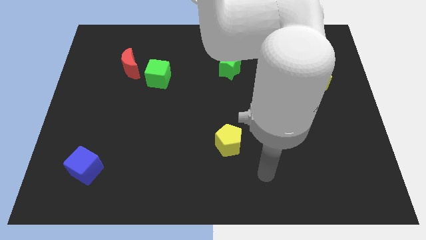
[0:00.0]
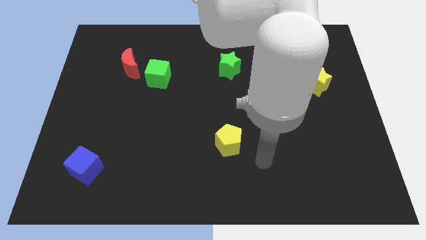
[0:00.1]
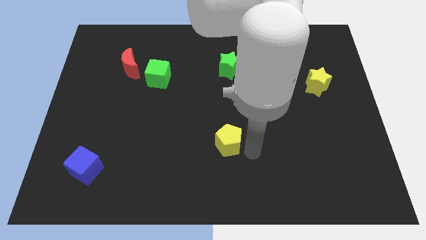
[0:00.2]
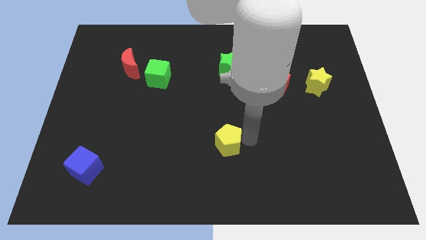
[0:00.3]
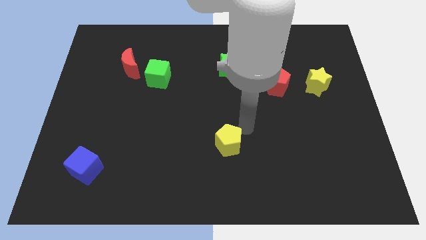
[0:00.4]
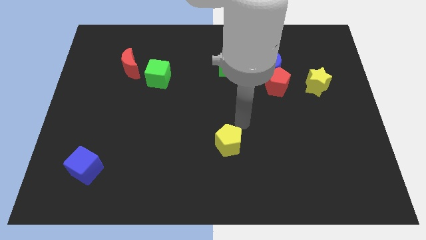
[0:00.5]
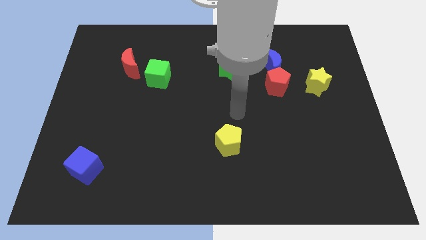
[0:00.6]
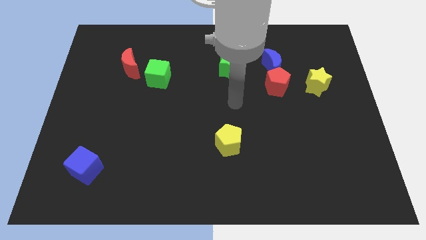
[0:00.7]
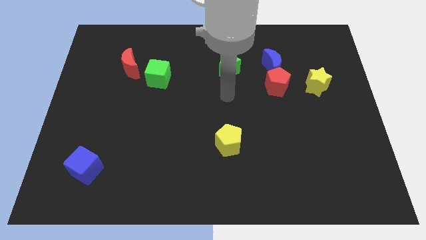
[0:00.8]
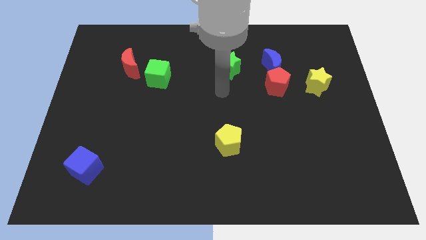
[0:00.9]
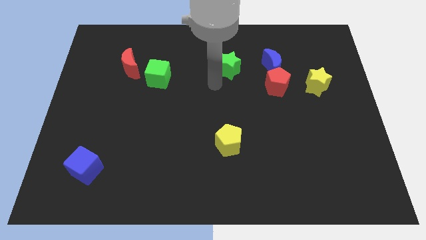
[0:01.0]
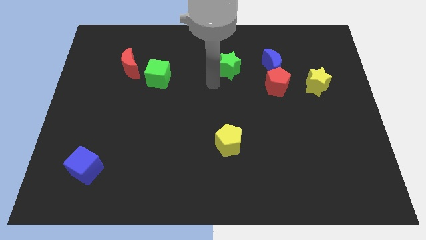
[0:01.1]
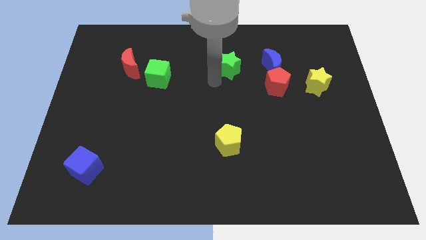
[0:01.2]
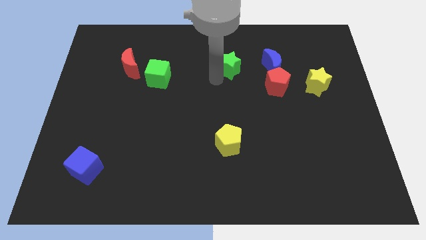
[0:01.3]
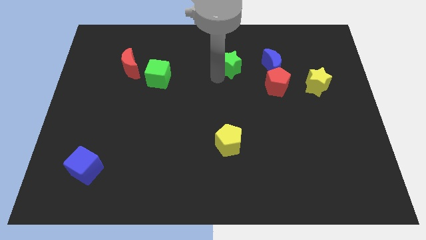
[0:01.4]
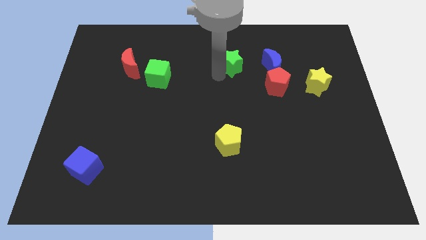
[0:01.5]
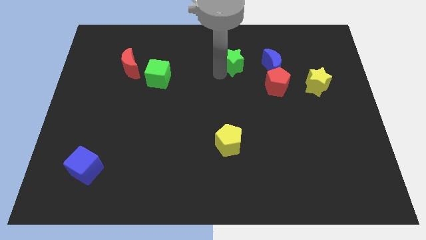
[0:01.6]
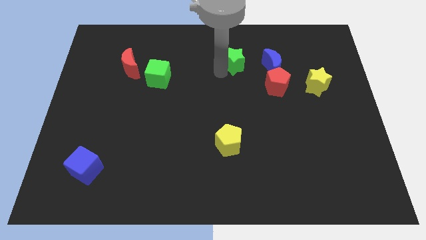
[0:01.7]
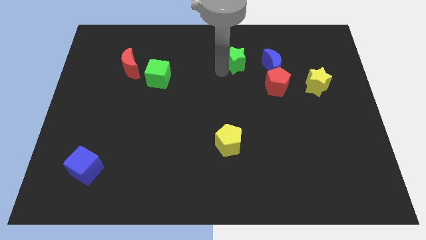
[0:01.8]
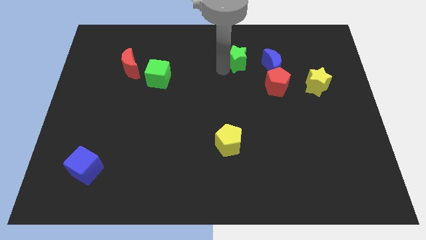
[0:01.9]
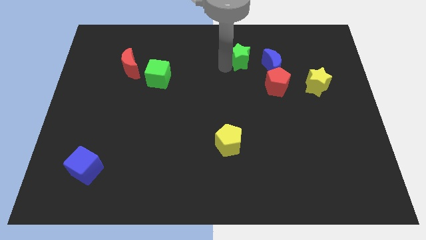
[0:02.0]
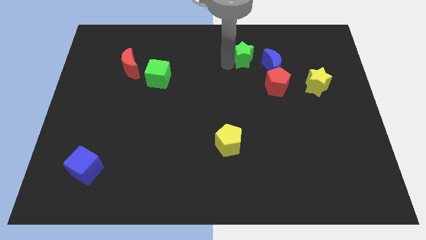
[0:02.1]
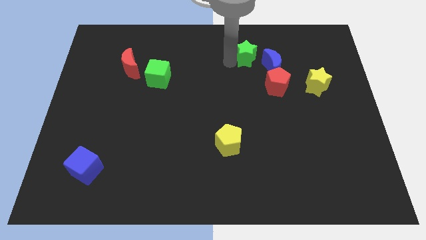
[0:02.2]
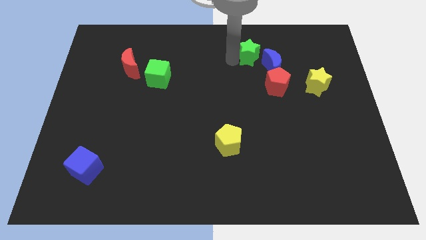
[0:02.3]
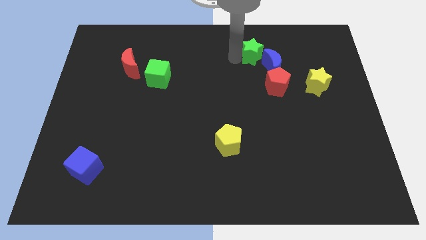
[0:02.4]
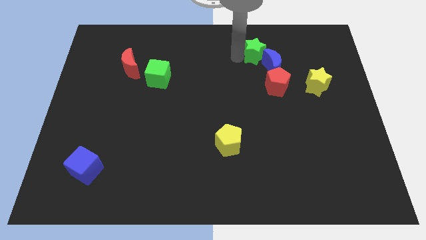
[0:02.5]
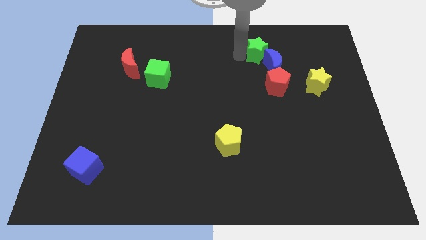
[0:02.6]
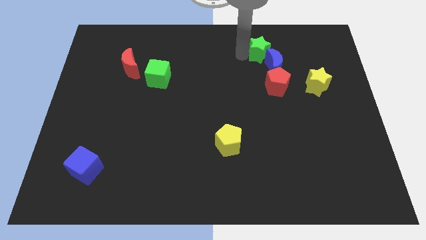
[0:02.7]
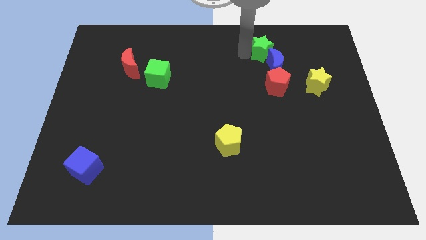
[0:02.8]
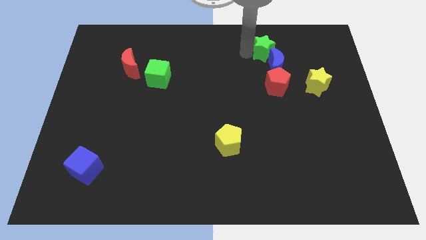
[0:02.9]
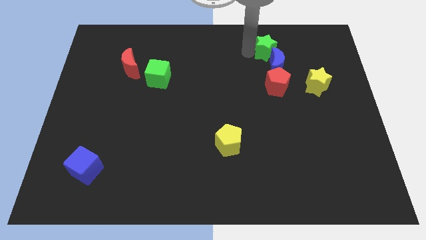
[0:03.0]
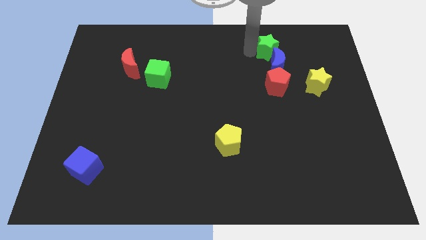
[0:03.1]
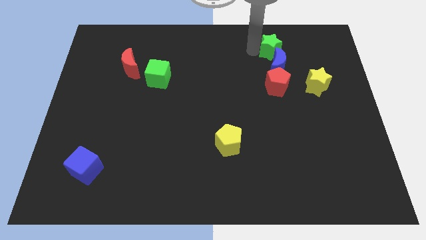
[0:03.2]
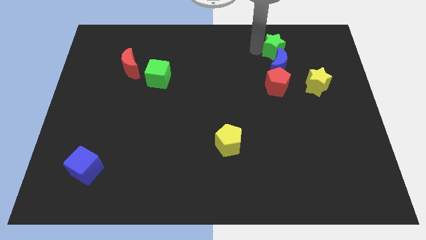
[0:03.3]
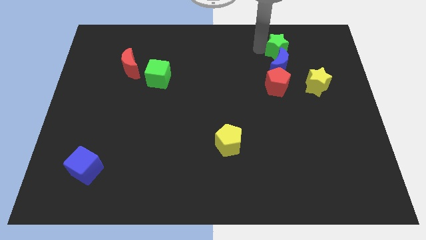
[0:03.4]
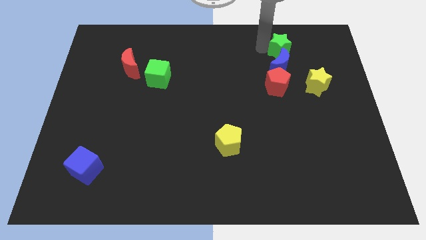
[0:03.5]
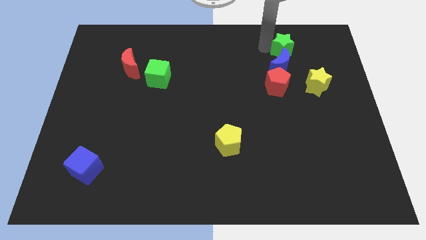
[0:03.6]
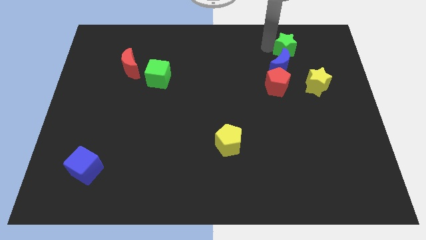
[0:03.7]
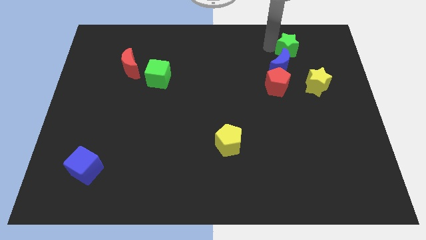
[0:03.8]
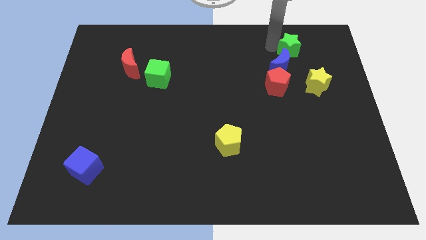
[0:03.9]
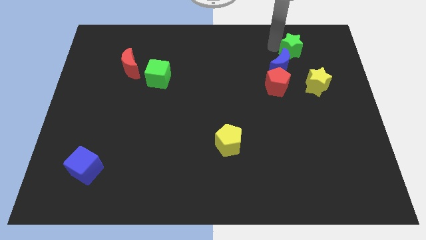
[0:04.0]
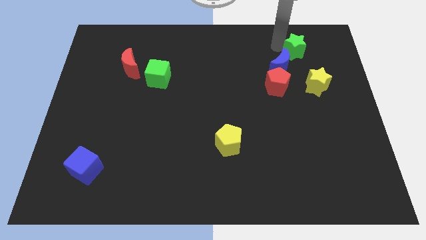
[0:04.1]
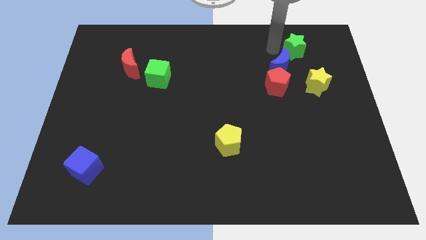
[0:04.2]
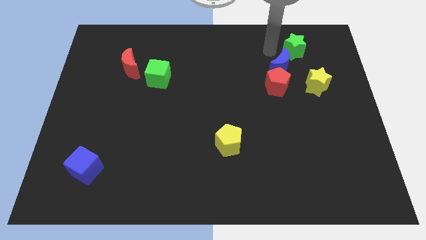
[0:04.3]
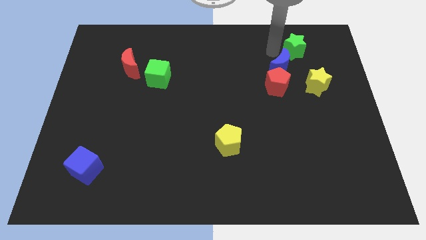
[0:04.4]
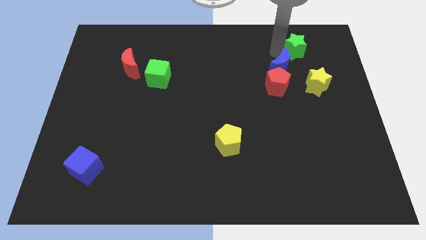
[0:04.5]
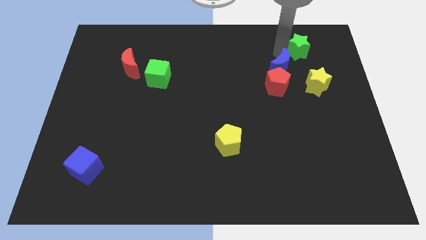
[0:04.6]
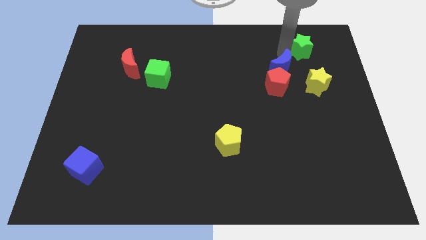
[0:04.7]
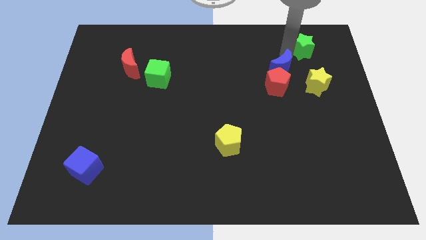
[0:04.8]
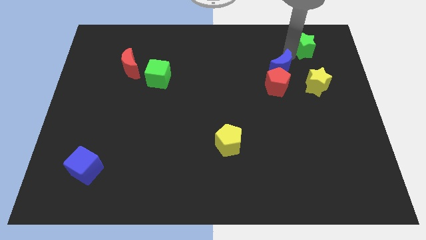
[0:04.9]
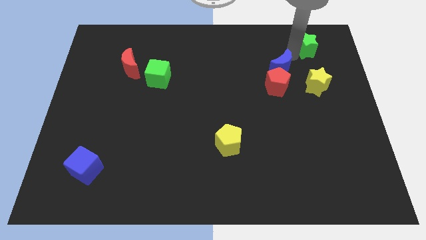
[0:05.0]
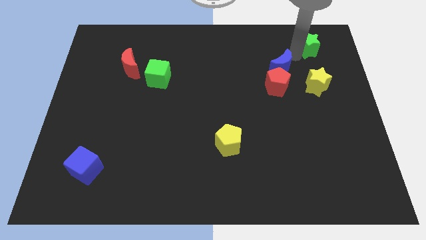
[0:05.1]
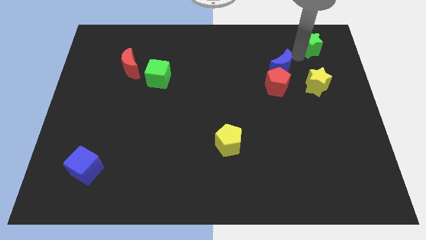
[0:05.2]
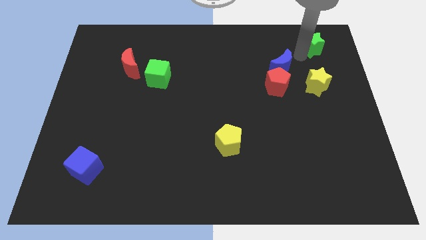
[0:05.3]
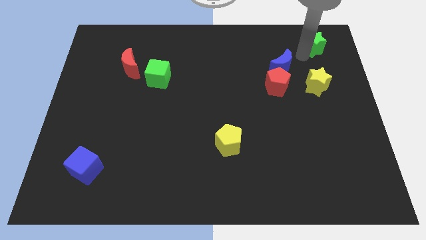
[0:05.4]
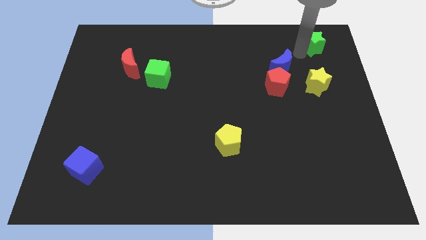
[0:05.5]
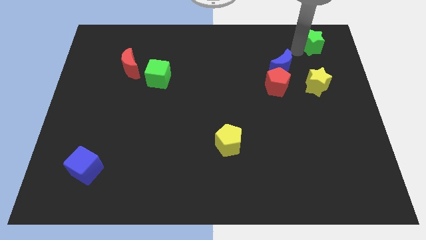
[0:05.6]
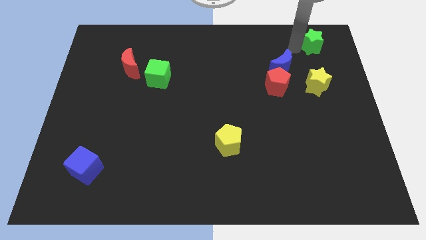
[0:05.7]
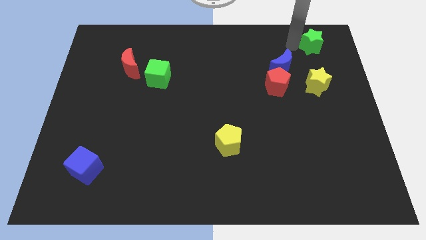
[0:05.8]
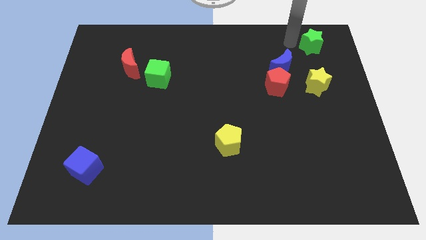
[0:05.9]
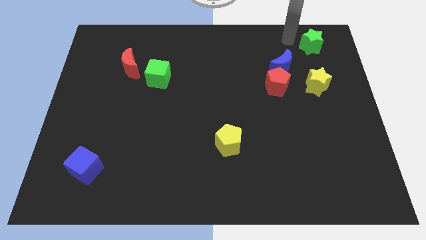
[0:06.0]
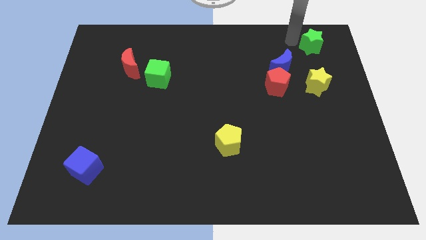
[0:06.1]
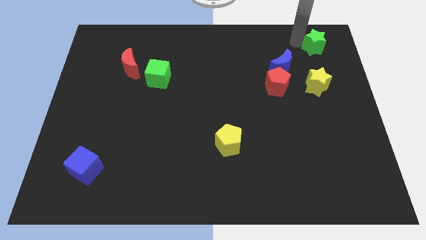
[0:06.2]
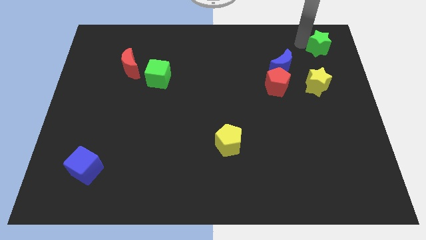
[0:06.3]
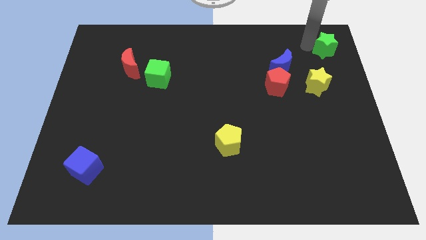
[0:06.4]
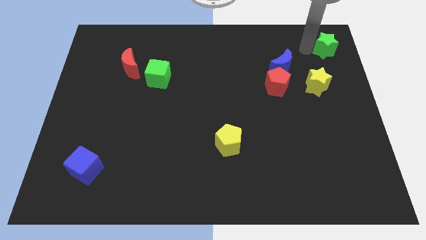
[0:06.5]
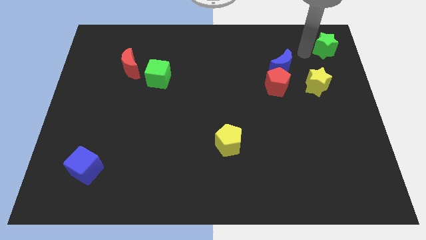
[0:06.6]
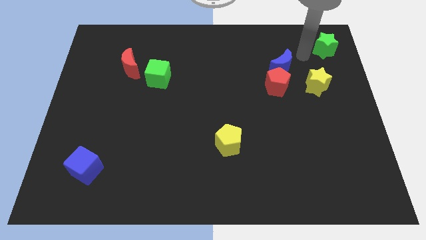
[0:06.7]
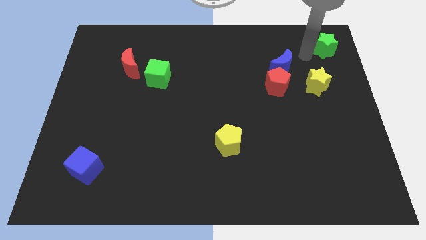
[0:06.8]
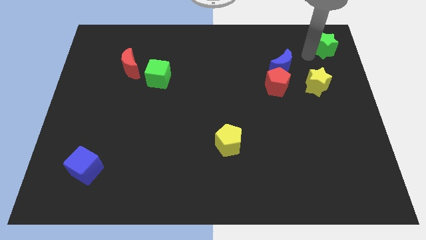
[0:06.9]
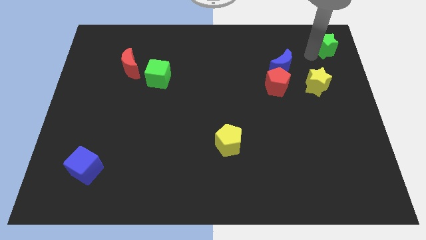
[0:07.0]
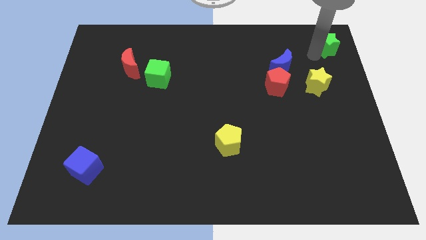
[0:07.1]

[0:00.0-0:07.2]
put the green star to the top right of the board
